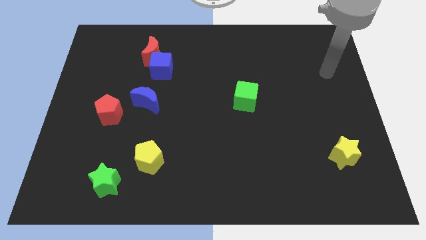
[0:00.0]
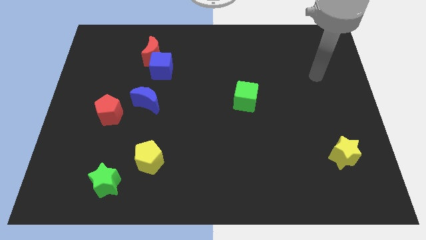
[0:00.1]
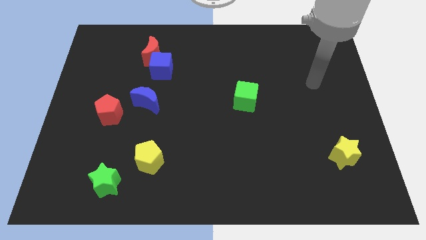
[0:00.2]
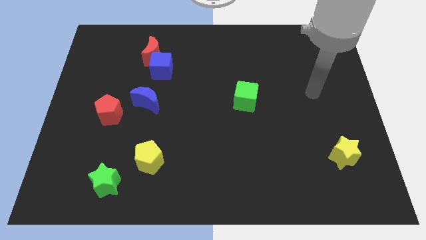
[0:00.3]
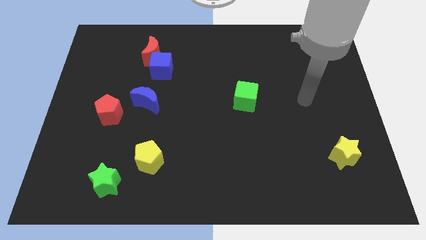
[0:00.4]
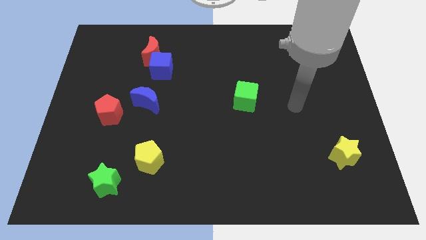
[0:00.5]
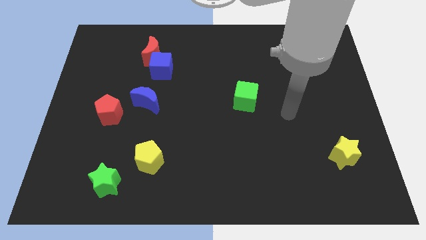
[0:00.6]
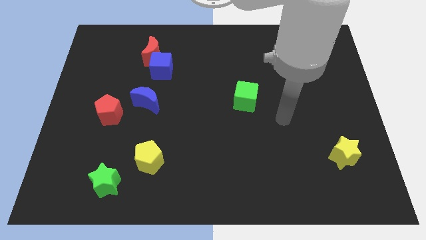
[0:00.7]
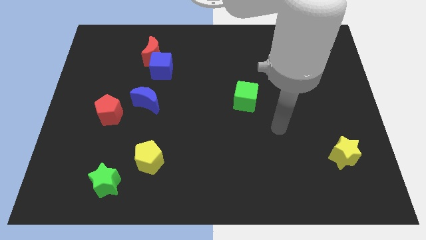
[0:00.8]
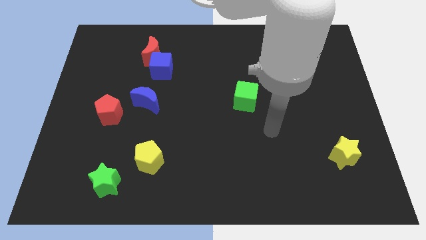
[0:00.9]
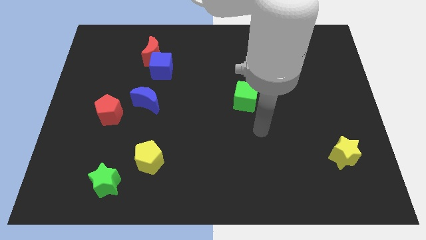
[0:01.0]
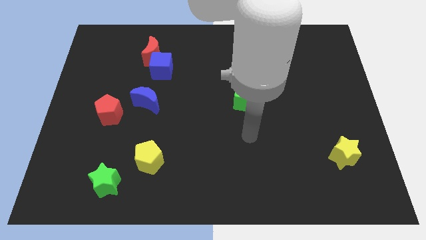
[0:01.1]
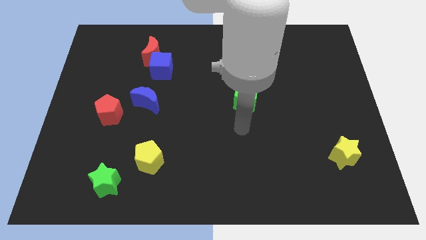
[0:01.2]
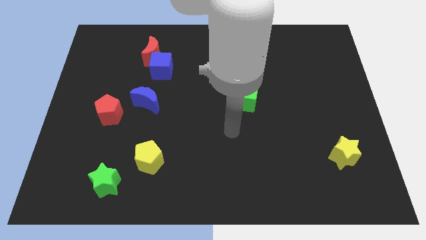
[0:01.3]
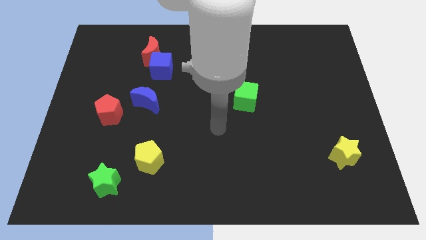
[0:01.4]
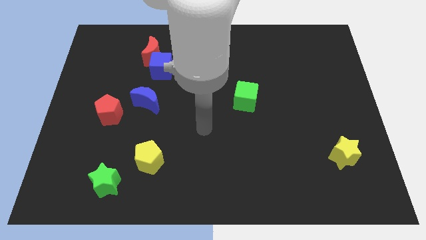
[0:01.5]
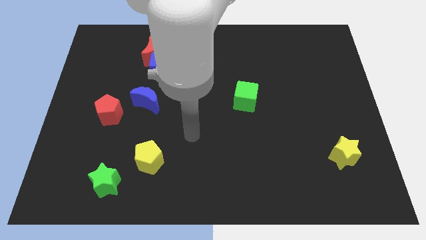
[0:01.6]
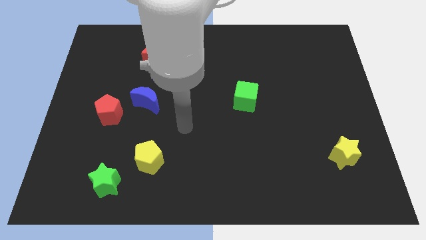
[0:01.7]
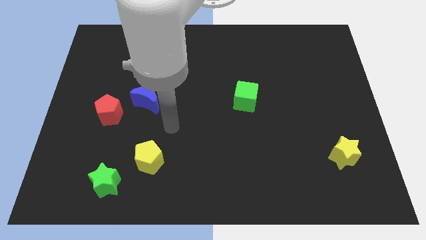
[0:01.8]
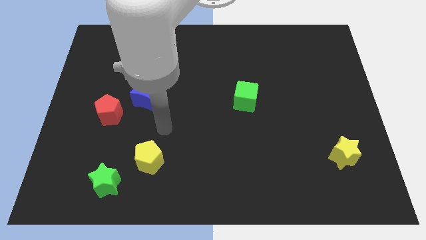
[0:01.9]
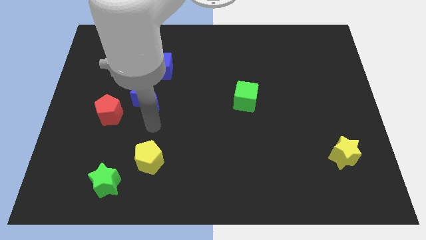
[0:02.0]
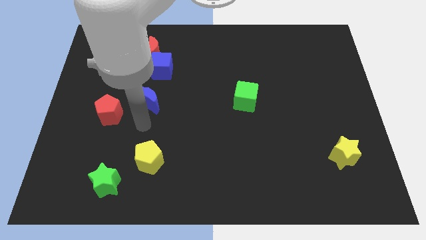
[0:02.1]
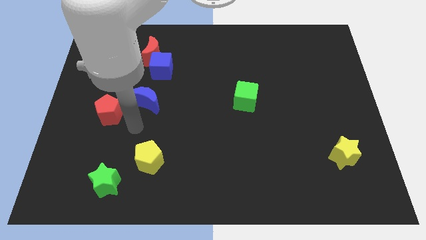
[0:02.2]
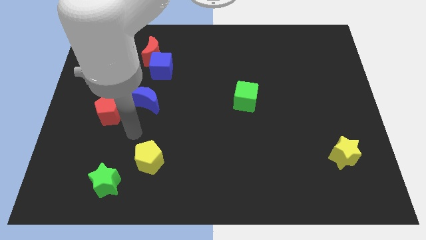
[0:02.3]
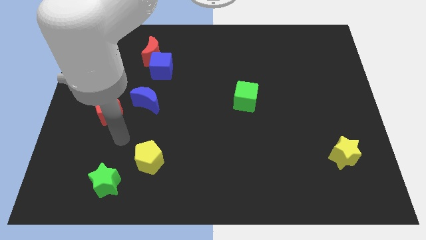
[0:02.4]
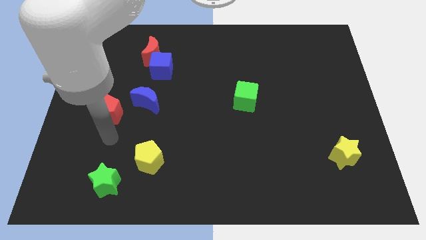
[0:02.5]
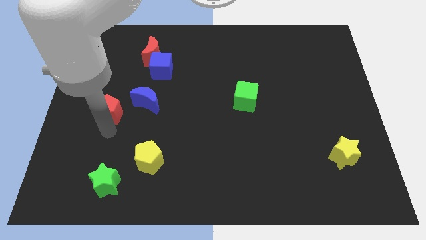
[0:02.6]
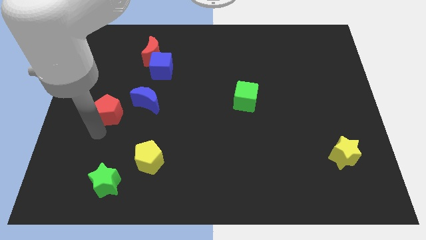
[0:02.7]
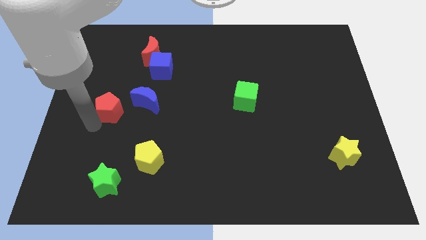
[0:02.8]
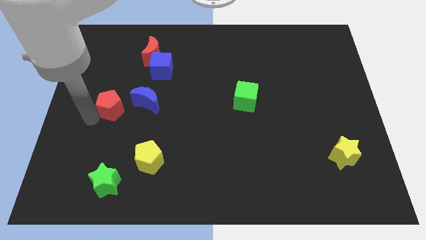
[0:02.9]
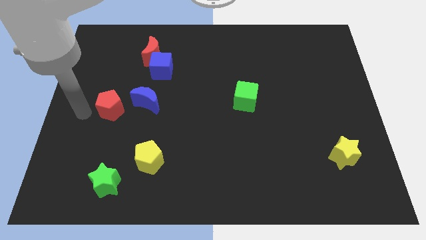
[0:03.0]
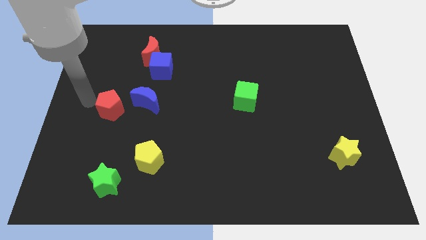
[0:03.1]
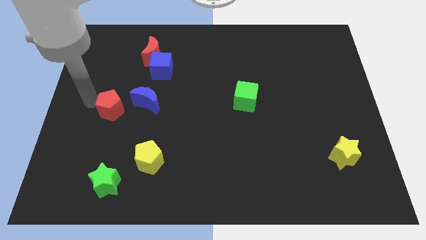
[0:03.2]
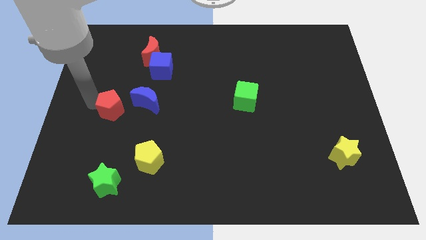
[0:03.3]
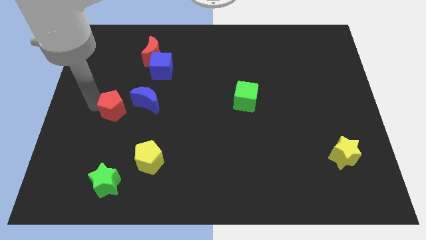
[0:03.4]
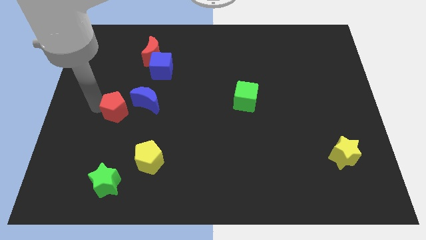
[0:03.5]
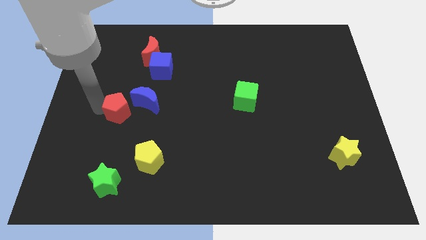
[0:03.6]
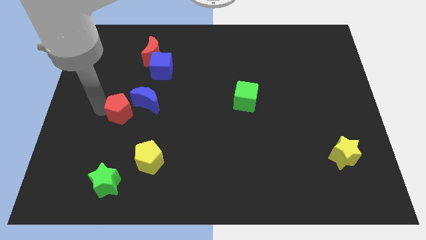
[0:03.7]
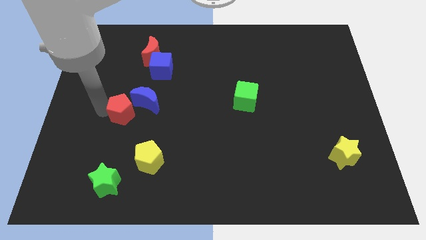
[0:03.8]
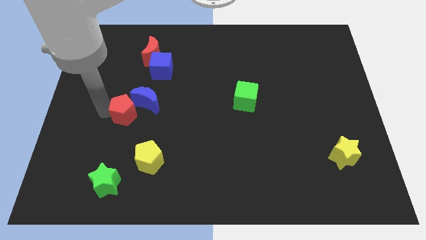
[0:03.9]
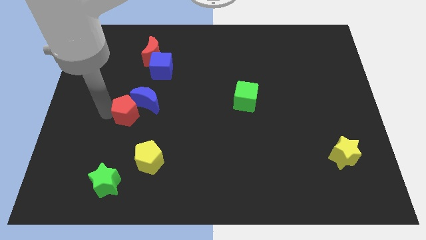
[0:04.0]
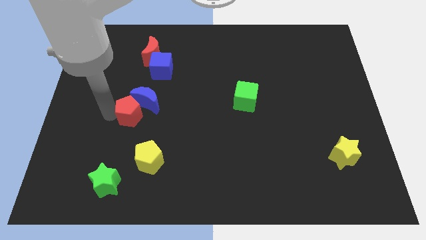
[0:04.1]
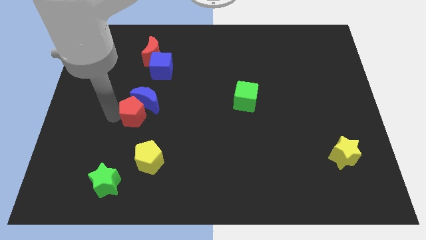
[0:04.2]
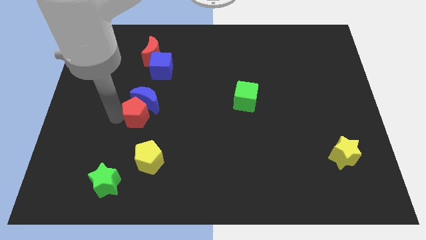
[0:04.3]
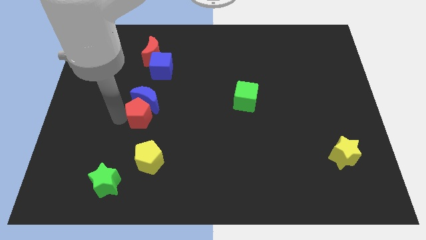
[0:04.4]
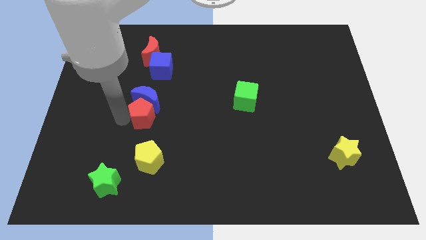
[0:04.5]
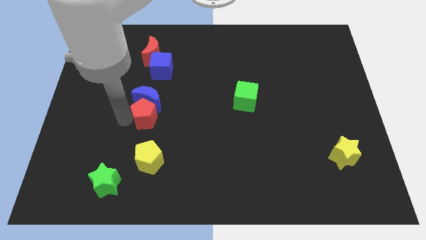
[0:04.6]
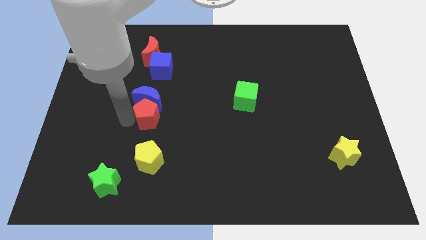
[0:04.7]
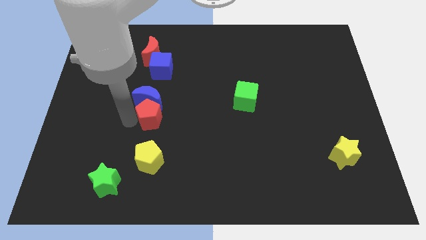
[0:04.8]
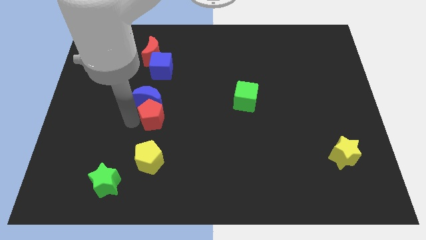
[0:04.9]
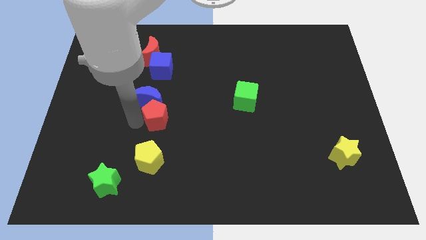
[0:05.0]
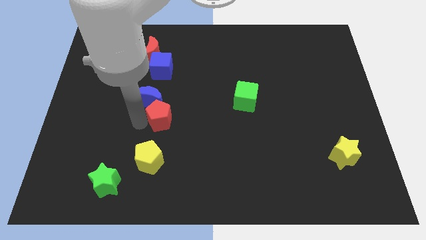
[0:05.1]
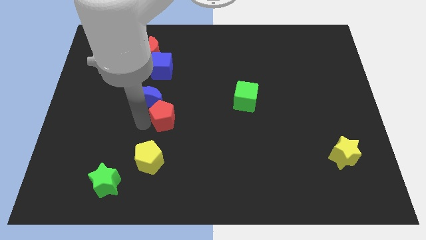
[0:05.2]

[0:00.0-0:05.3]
put the red pentagon to the middle

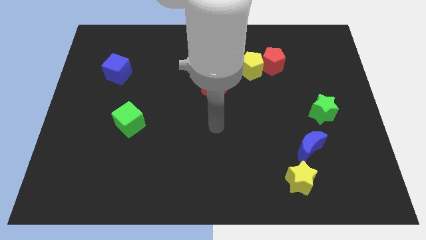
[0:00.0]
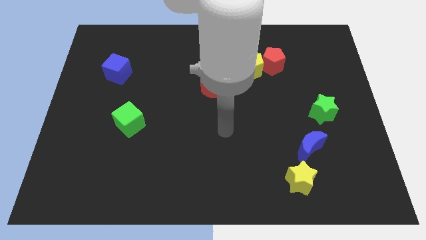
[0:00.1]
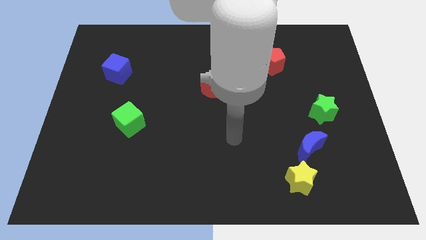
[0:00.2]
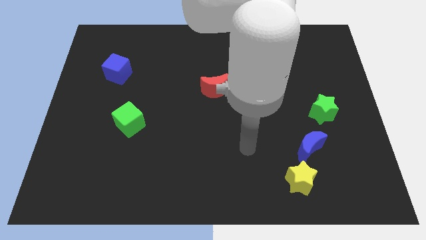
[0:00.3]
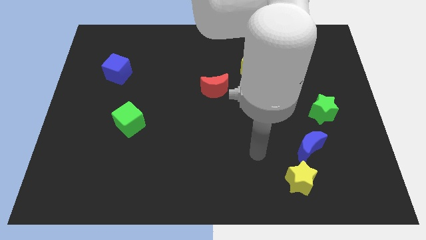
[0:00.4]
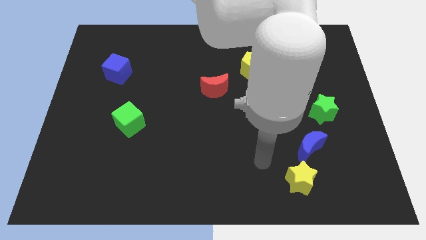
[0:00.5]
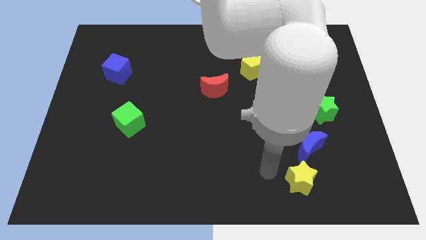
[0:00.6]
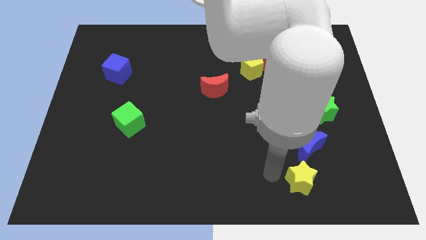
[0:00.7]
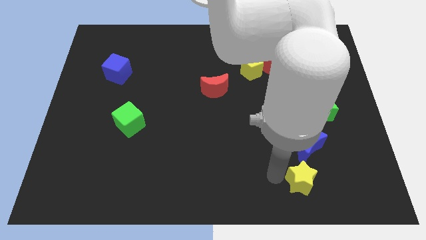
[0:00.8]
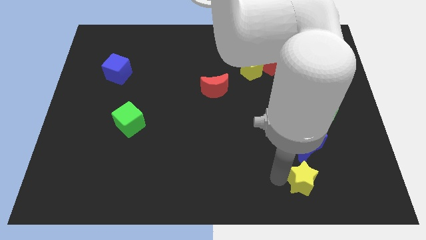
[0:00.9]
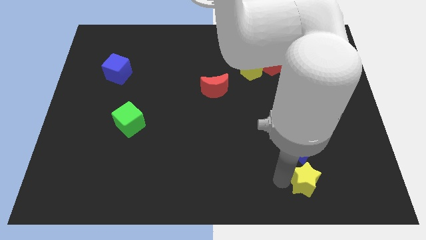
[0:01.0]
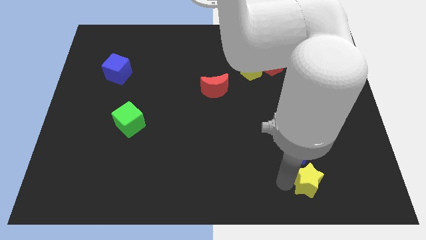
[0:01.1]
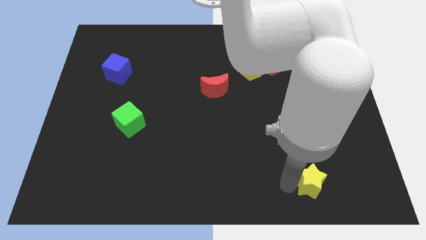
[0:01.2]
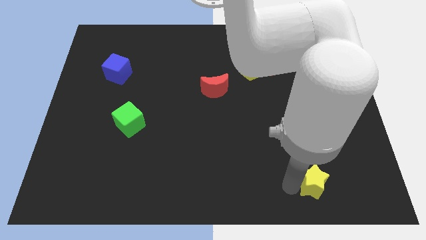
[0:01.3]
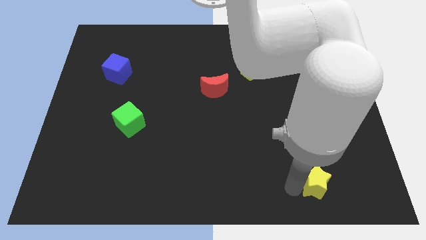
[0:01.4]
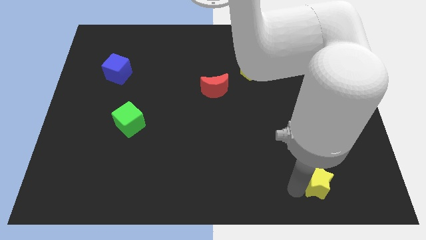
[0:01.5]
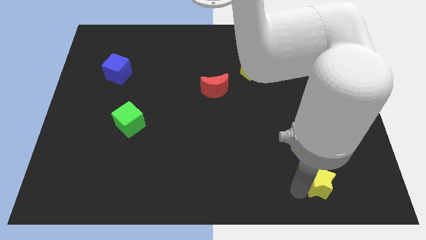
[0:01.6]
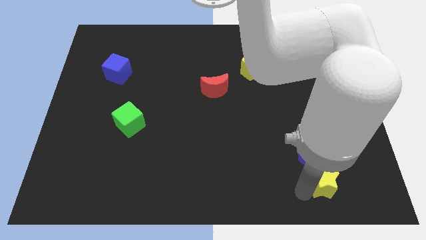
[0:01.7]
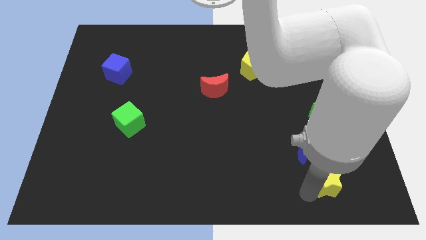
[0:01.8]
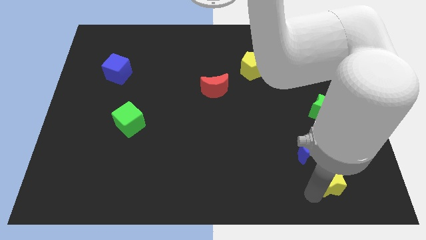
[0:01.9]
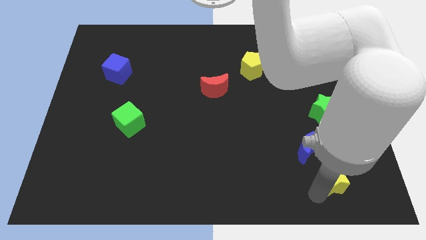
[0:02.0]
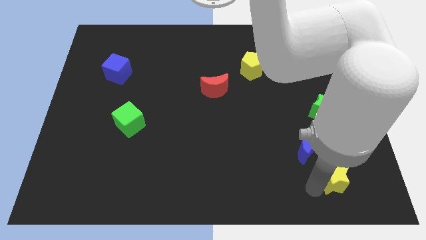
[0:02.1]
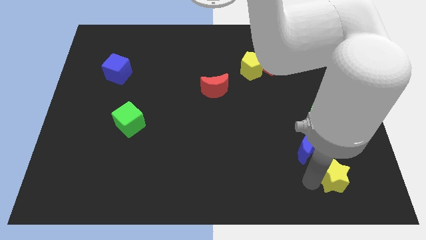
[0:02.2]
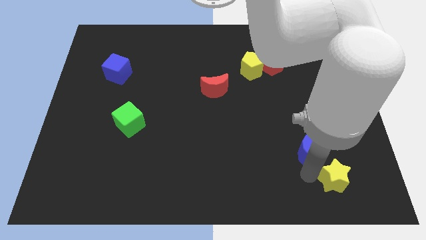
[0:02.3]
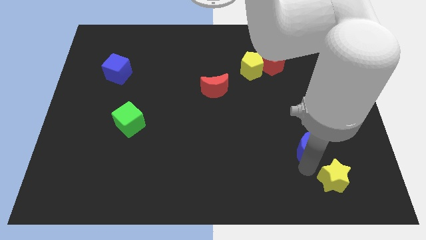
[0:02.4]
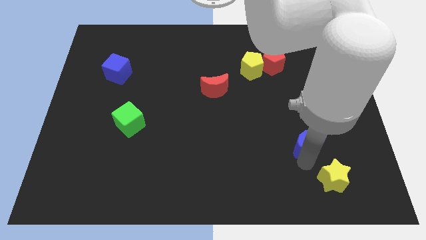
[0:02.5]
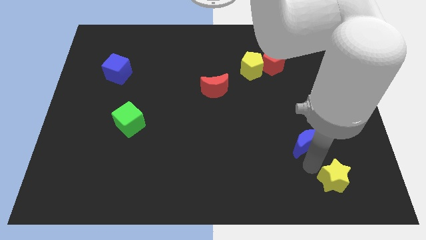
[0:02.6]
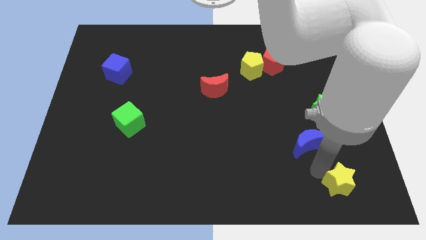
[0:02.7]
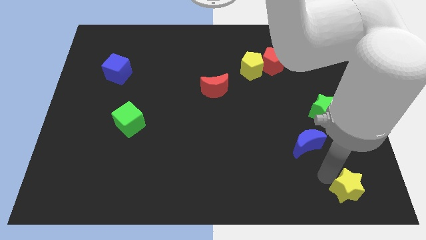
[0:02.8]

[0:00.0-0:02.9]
move the yellow star to the bottom right of the board
